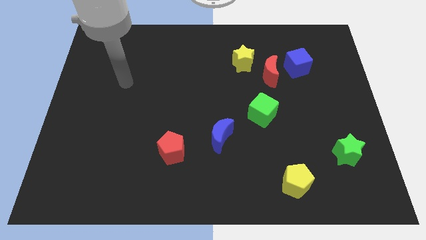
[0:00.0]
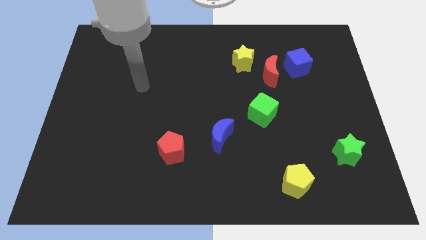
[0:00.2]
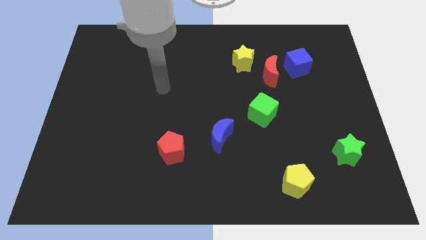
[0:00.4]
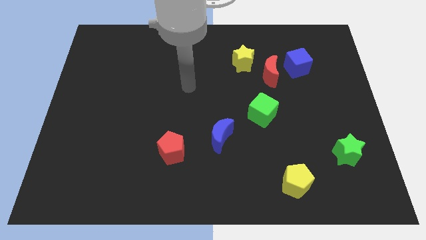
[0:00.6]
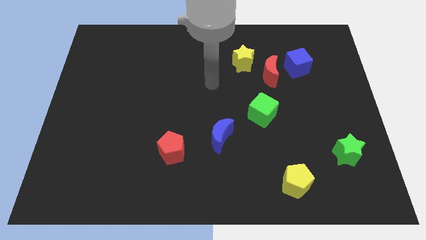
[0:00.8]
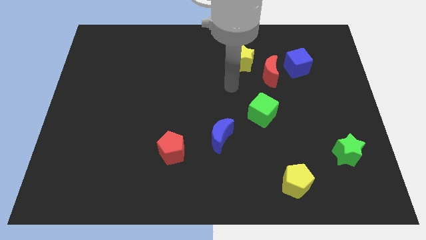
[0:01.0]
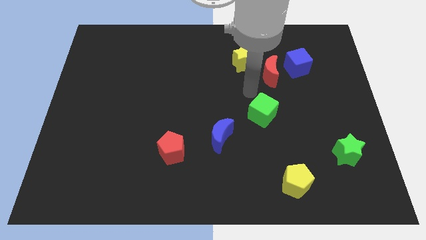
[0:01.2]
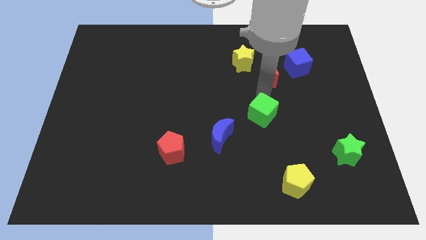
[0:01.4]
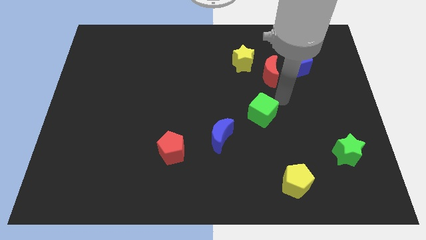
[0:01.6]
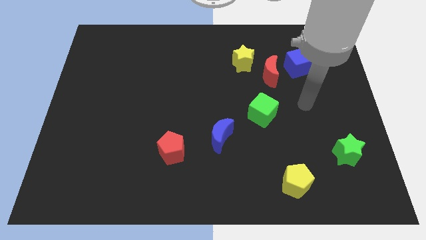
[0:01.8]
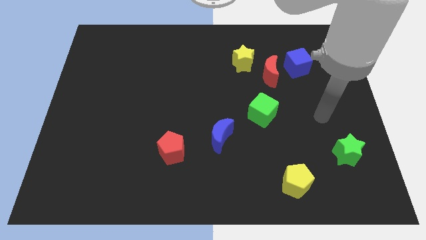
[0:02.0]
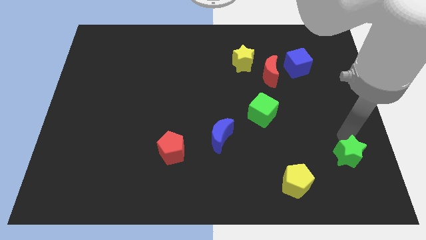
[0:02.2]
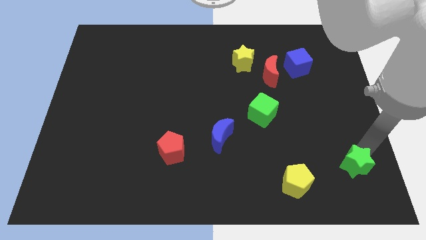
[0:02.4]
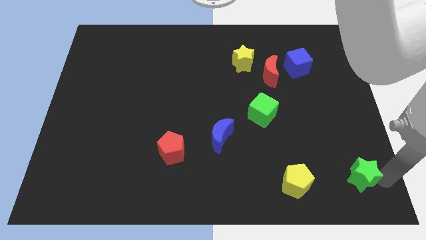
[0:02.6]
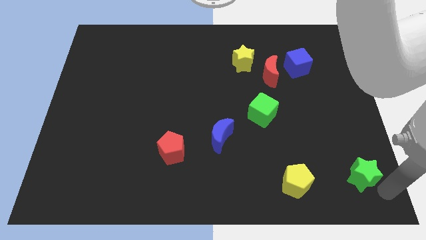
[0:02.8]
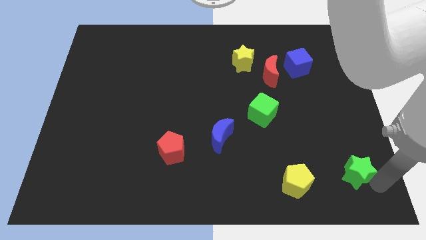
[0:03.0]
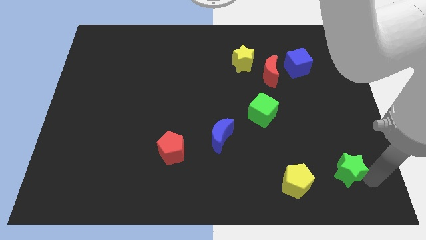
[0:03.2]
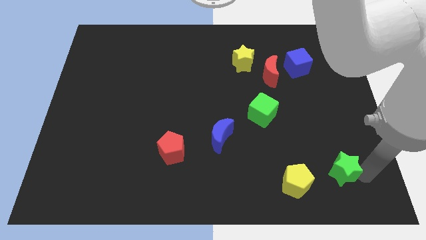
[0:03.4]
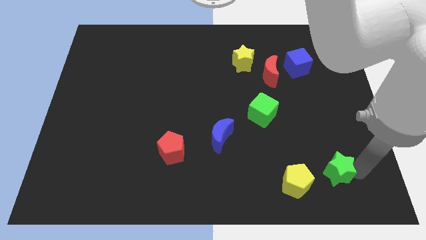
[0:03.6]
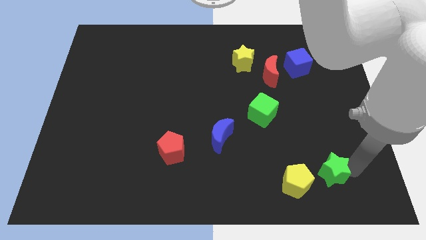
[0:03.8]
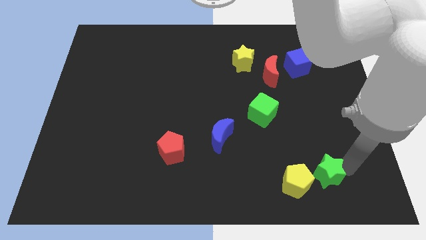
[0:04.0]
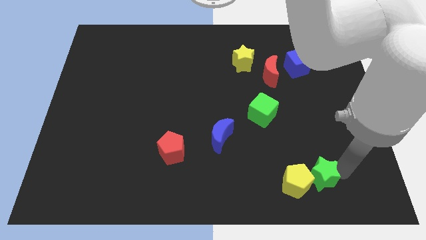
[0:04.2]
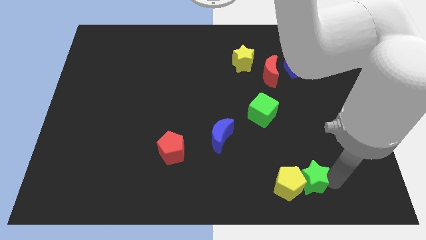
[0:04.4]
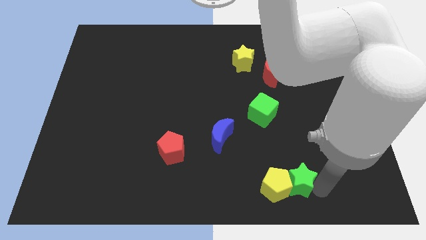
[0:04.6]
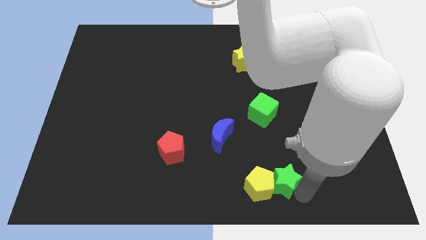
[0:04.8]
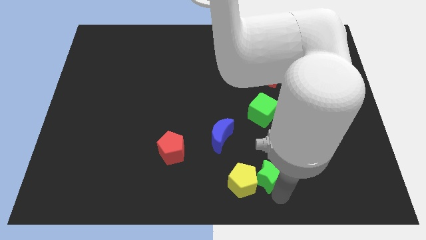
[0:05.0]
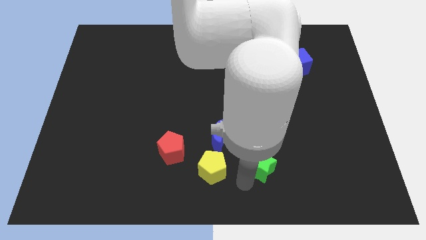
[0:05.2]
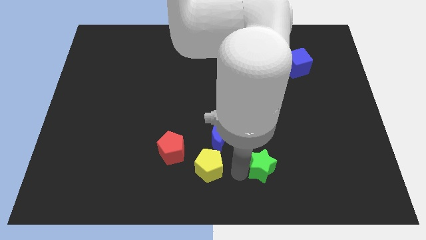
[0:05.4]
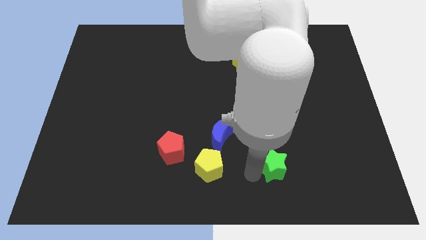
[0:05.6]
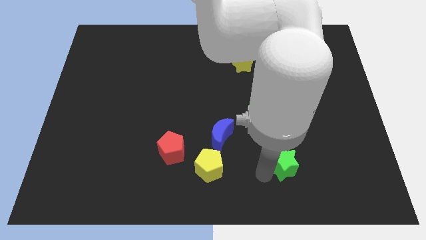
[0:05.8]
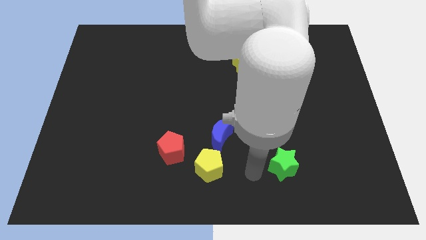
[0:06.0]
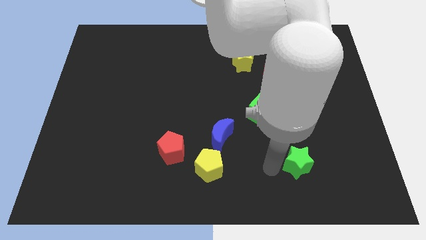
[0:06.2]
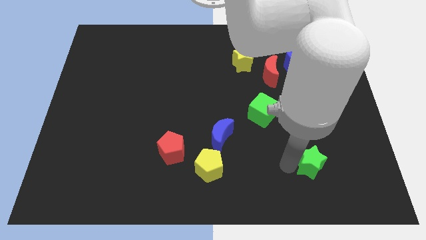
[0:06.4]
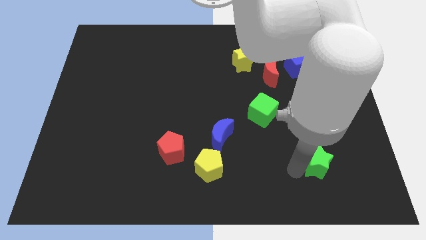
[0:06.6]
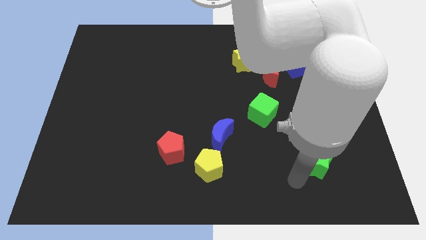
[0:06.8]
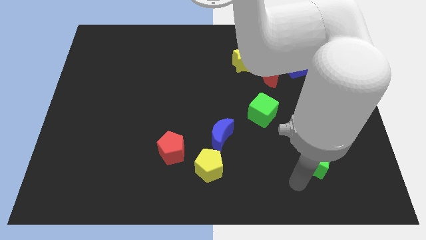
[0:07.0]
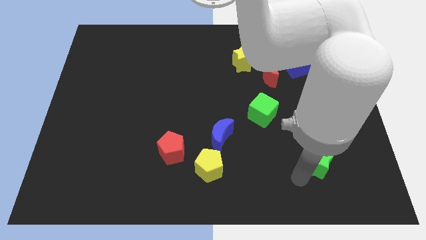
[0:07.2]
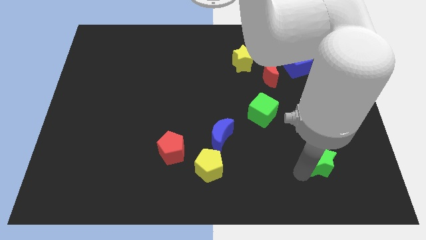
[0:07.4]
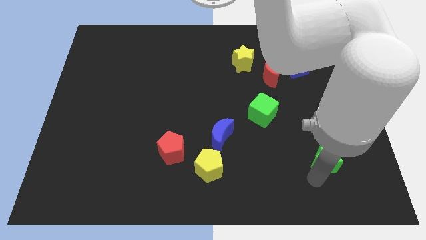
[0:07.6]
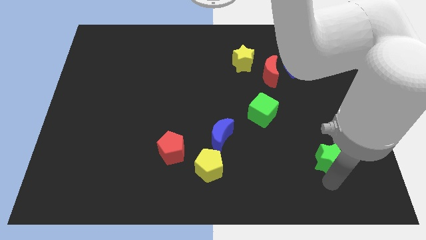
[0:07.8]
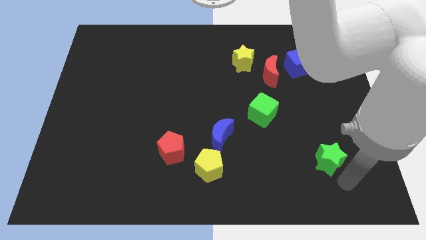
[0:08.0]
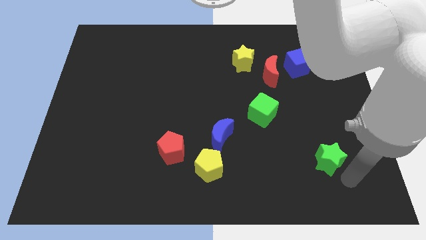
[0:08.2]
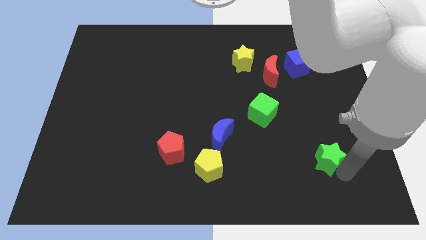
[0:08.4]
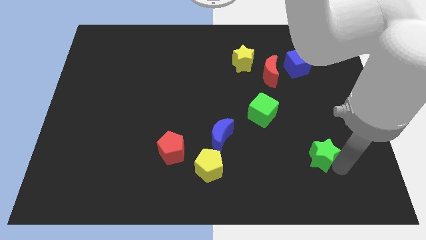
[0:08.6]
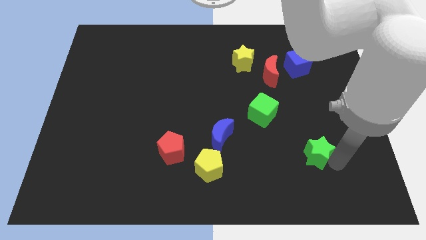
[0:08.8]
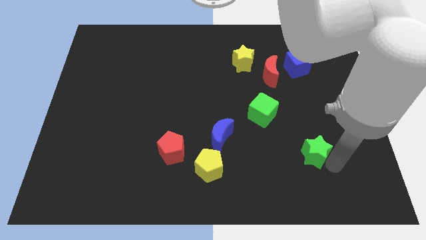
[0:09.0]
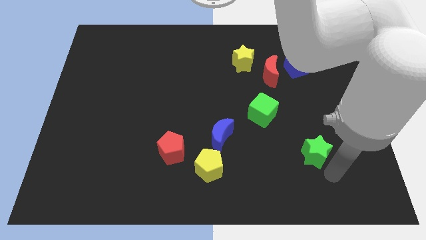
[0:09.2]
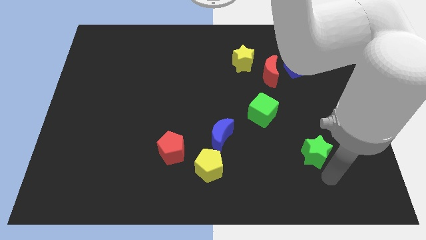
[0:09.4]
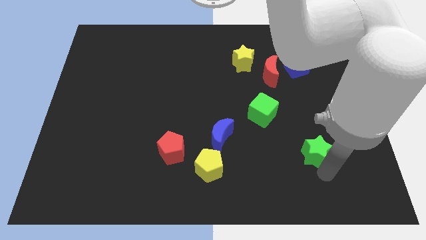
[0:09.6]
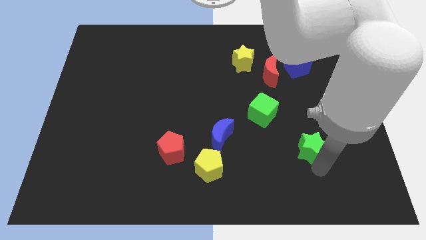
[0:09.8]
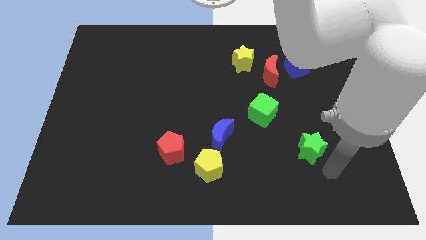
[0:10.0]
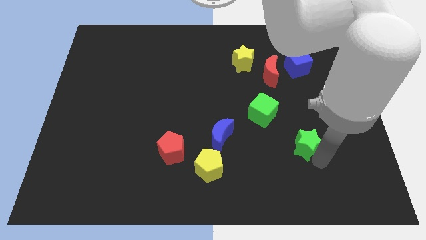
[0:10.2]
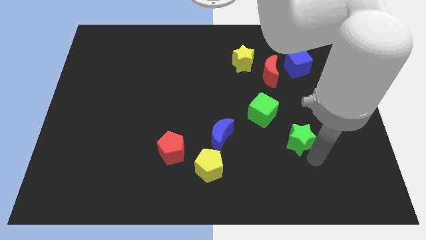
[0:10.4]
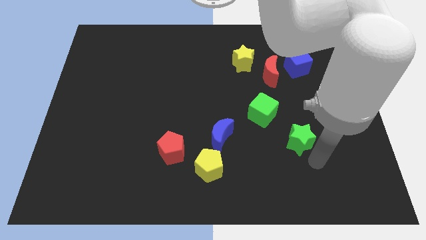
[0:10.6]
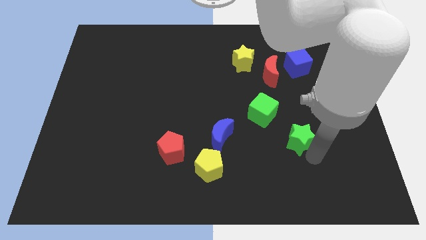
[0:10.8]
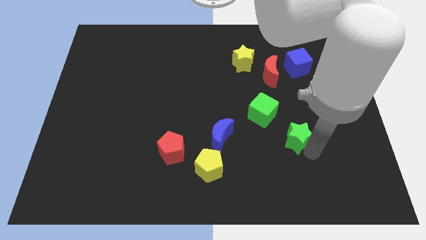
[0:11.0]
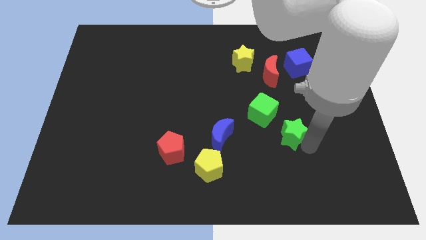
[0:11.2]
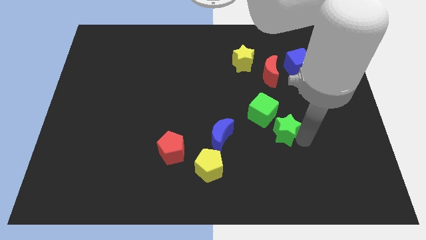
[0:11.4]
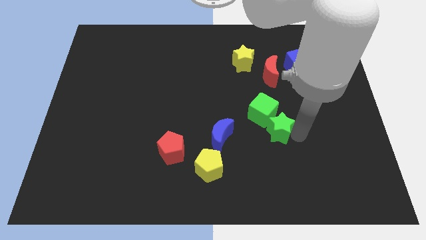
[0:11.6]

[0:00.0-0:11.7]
put the green star towards the green cube

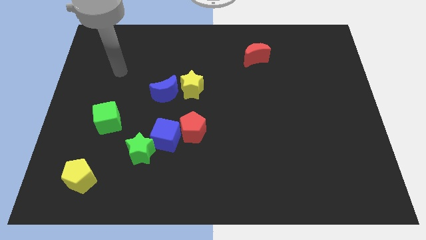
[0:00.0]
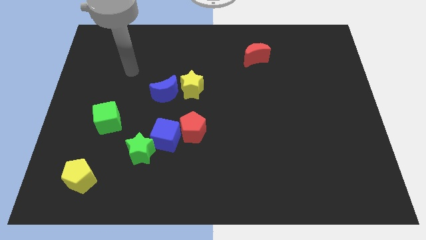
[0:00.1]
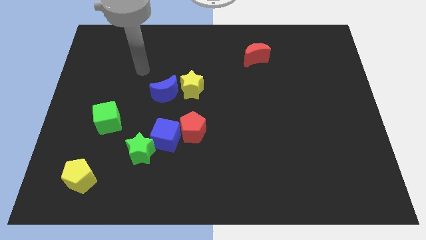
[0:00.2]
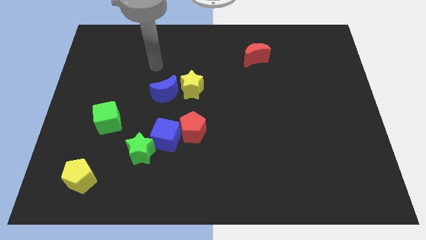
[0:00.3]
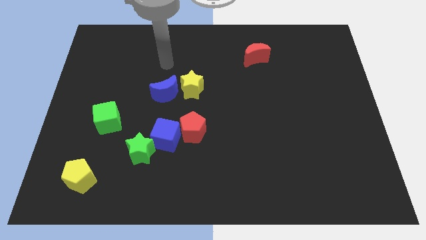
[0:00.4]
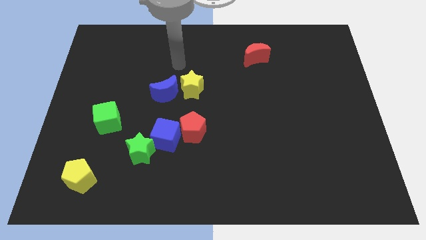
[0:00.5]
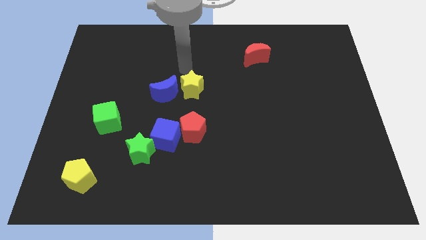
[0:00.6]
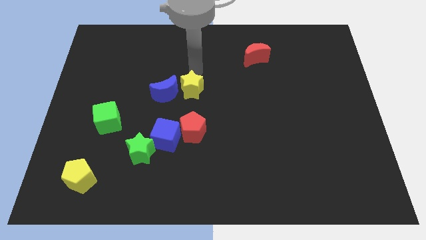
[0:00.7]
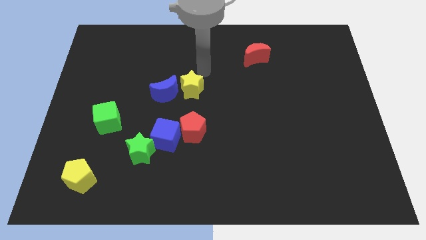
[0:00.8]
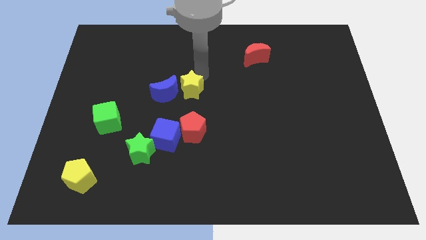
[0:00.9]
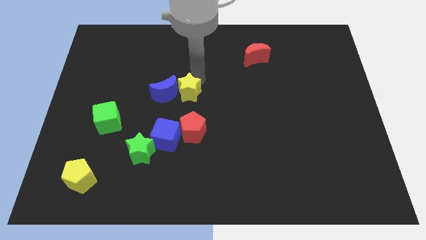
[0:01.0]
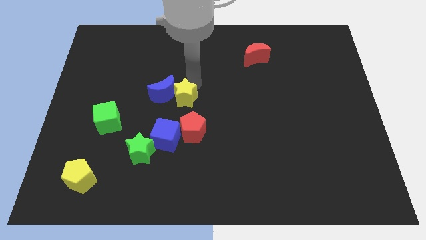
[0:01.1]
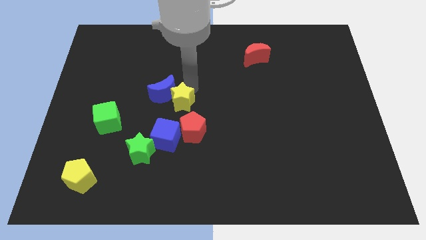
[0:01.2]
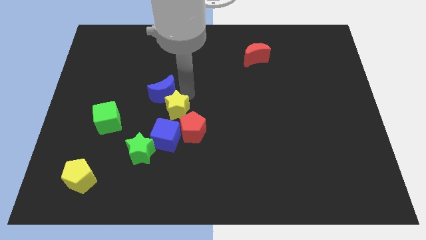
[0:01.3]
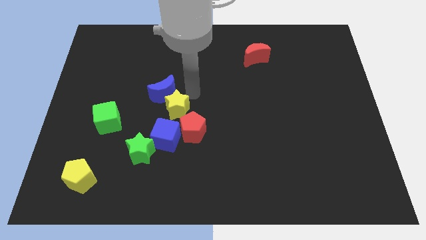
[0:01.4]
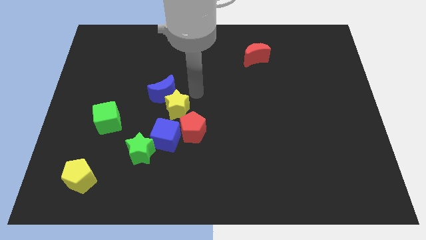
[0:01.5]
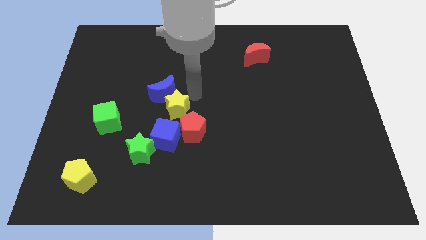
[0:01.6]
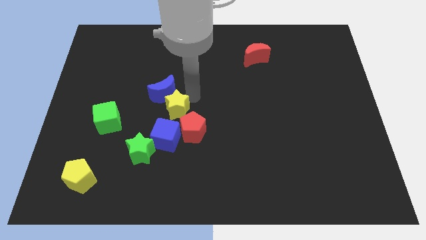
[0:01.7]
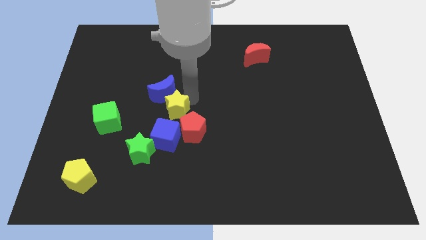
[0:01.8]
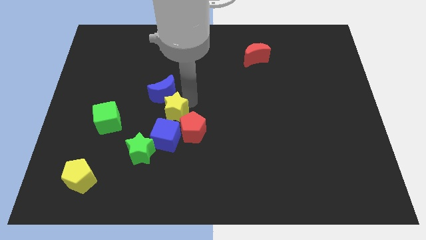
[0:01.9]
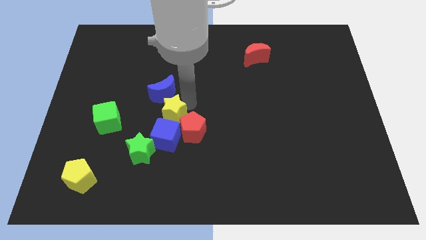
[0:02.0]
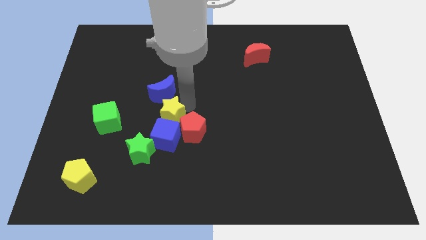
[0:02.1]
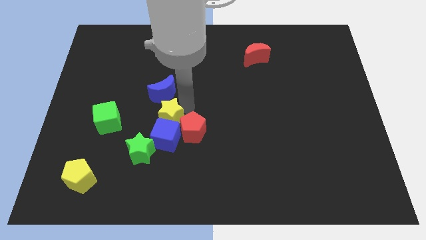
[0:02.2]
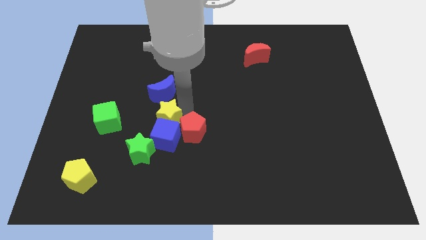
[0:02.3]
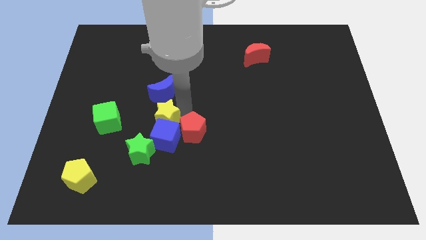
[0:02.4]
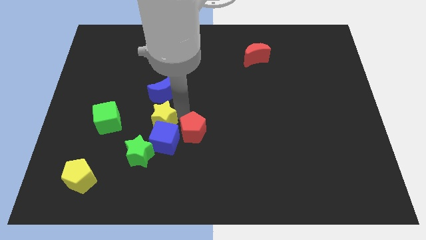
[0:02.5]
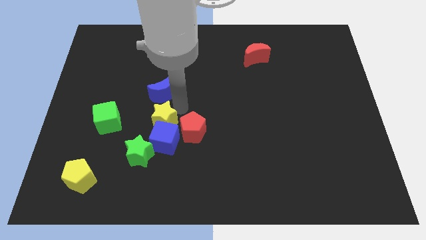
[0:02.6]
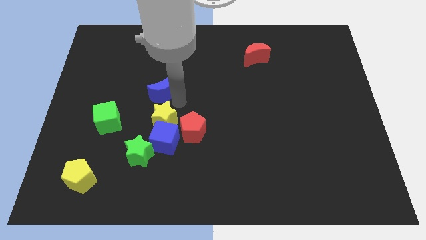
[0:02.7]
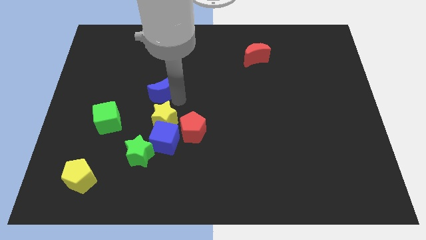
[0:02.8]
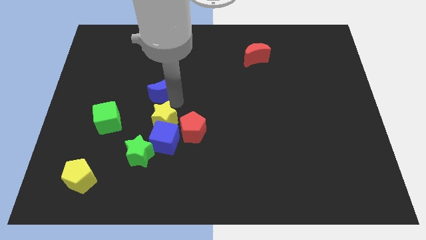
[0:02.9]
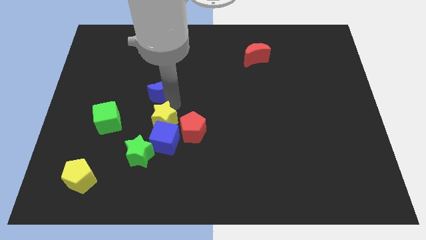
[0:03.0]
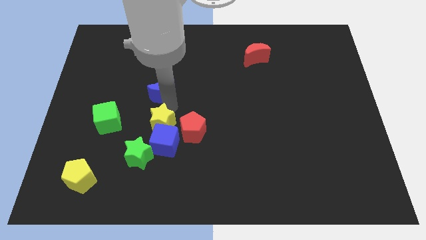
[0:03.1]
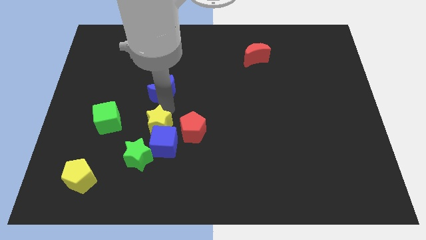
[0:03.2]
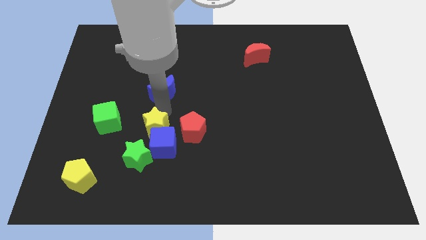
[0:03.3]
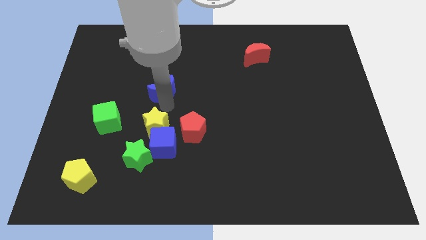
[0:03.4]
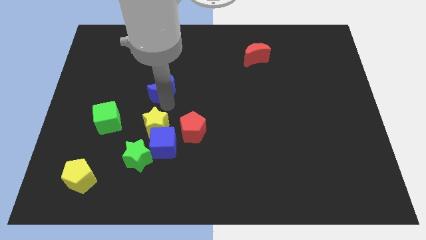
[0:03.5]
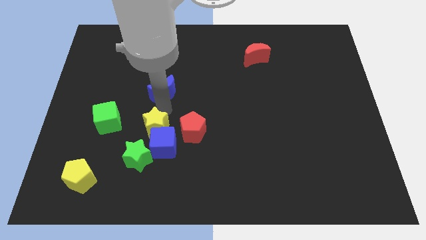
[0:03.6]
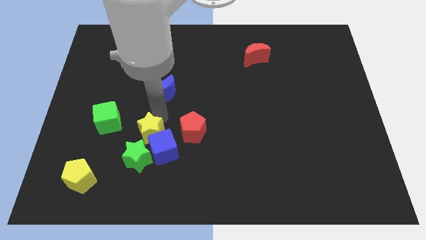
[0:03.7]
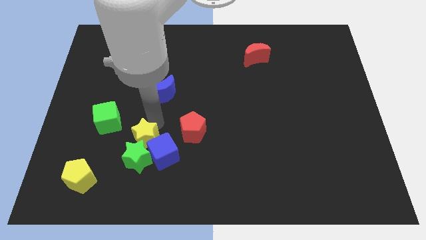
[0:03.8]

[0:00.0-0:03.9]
put the yellow star close to the green star
